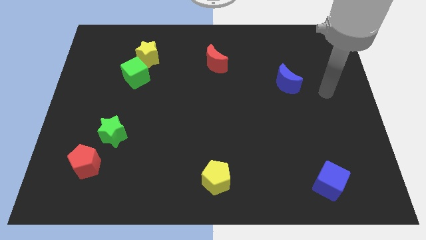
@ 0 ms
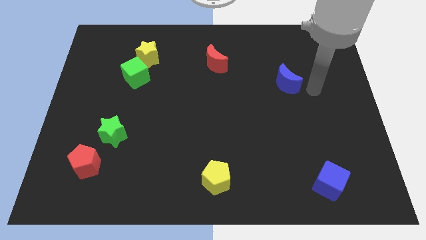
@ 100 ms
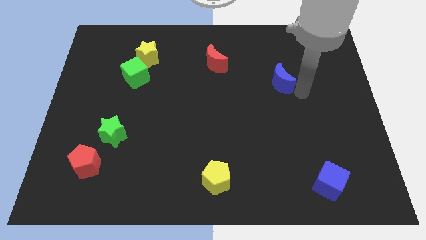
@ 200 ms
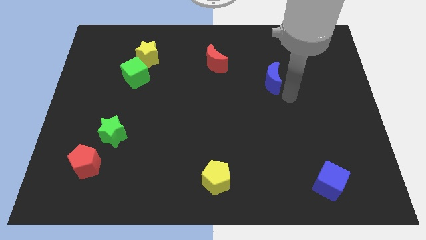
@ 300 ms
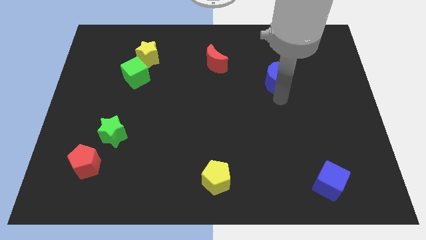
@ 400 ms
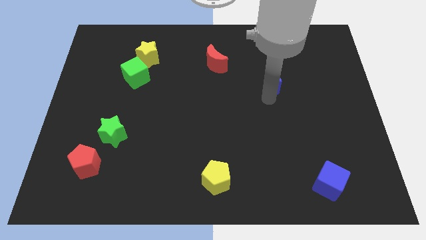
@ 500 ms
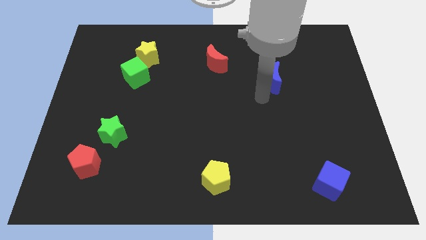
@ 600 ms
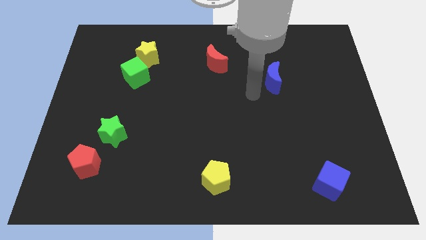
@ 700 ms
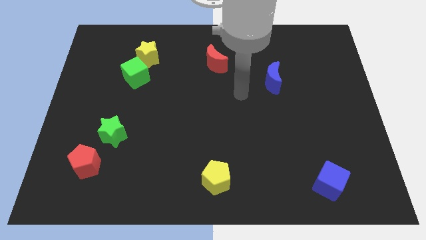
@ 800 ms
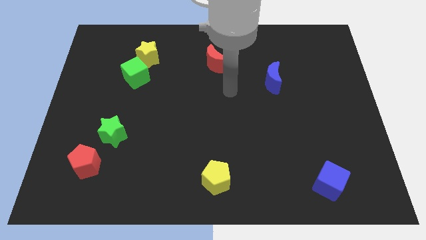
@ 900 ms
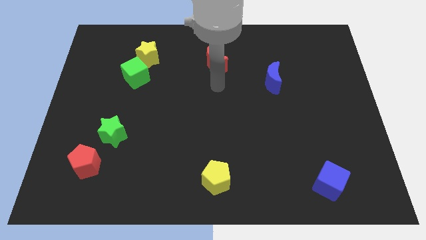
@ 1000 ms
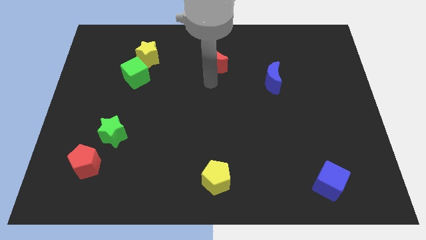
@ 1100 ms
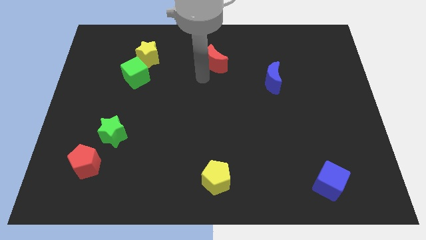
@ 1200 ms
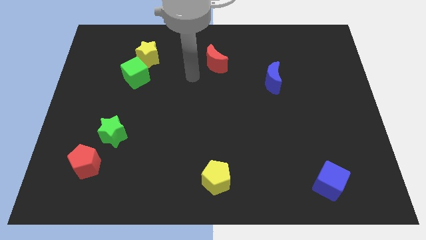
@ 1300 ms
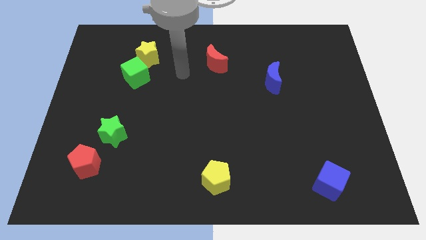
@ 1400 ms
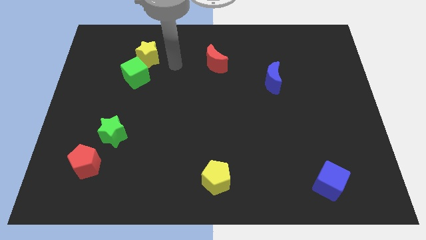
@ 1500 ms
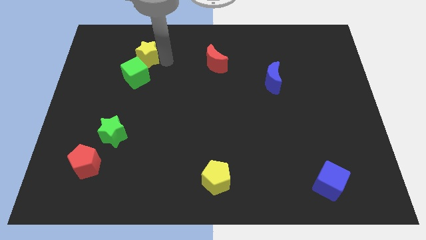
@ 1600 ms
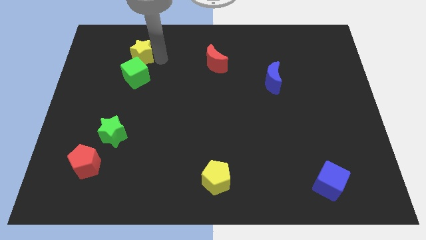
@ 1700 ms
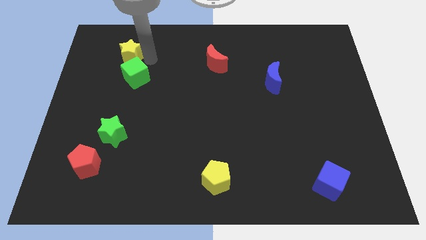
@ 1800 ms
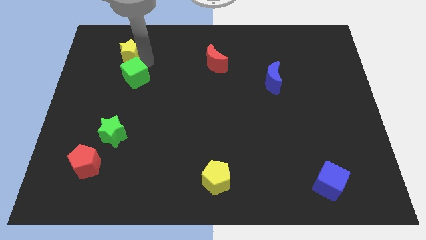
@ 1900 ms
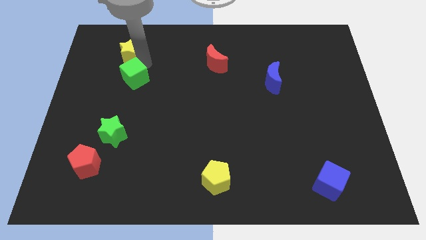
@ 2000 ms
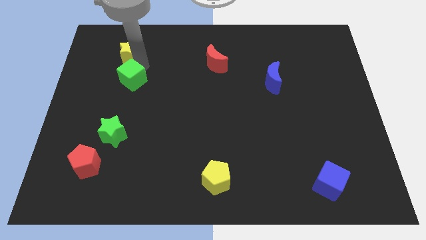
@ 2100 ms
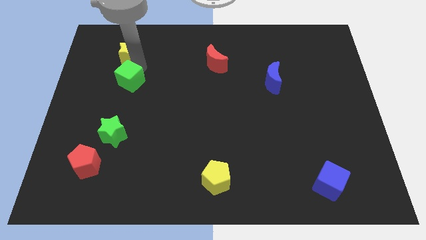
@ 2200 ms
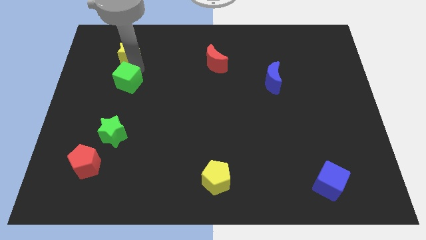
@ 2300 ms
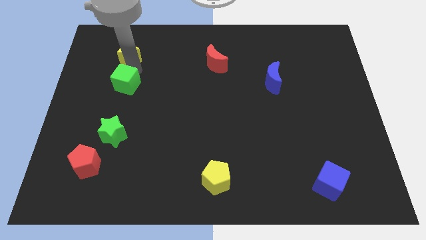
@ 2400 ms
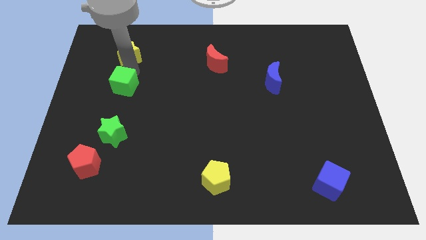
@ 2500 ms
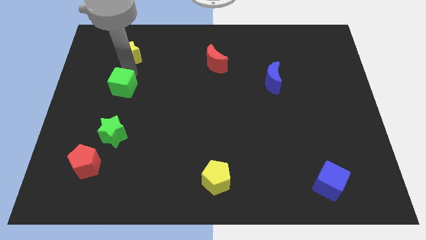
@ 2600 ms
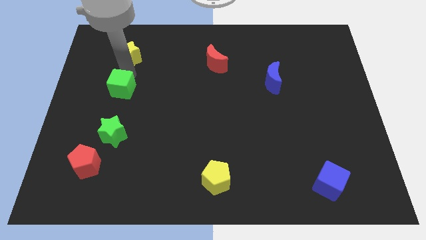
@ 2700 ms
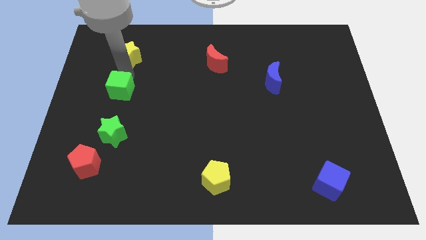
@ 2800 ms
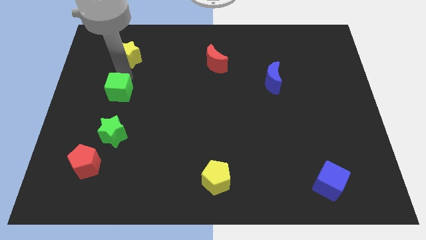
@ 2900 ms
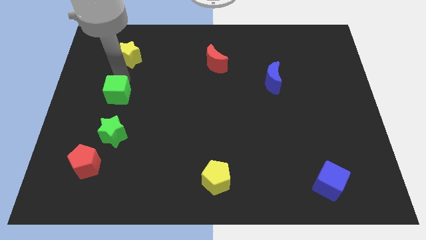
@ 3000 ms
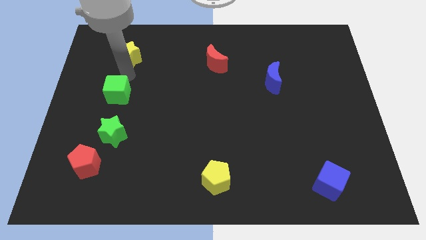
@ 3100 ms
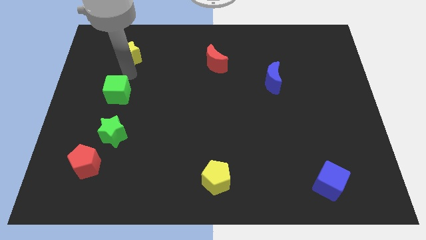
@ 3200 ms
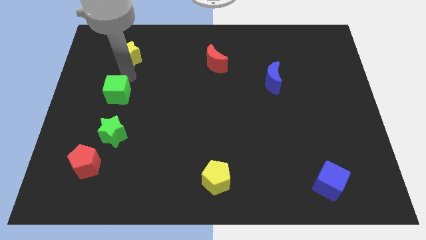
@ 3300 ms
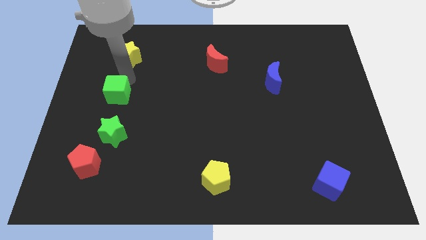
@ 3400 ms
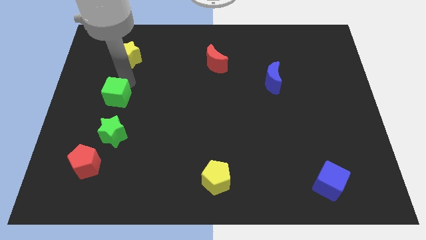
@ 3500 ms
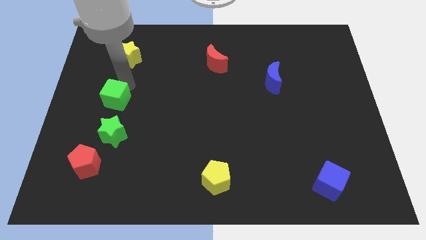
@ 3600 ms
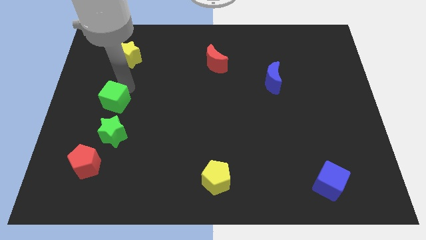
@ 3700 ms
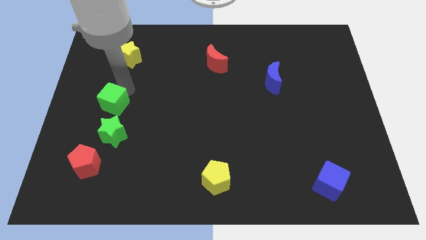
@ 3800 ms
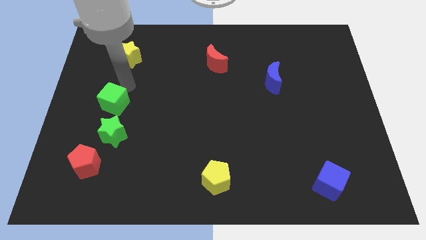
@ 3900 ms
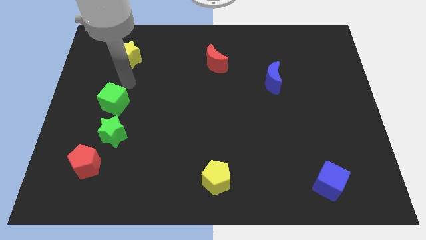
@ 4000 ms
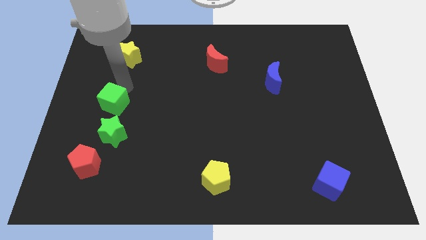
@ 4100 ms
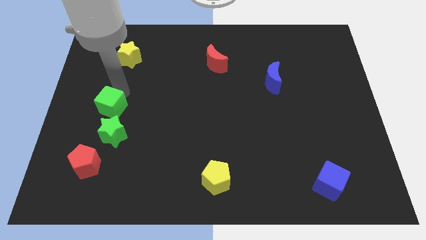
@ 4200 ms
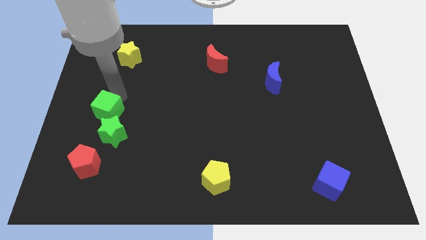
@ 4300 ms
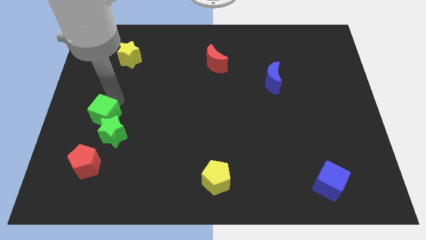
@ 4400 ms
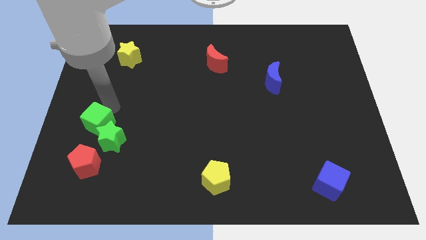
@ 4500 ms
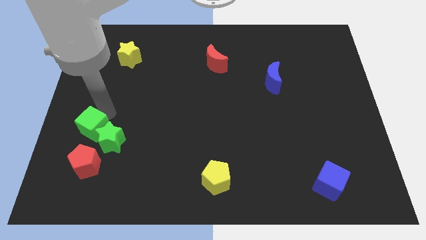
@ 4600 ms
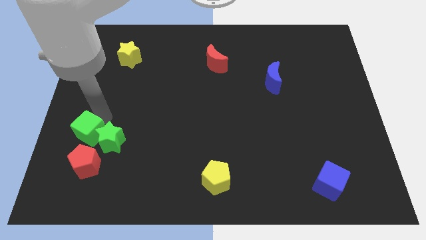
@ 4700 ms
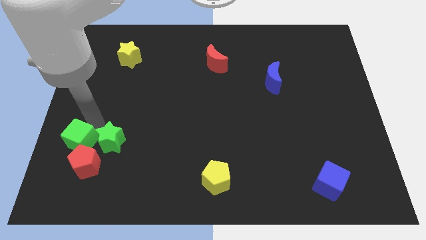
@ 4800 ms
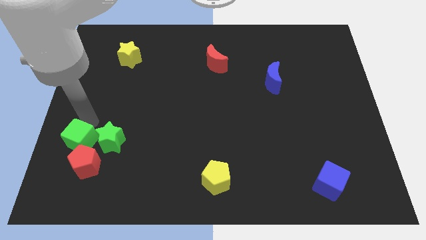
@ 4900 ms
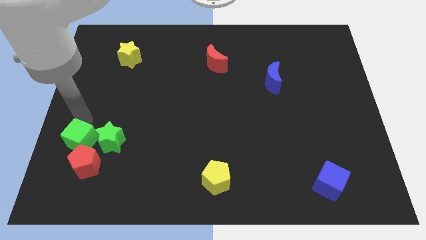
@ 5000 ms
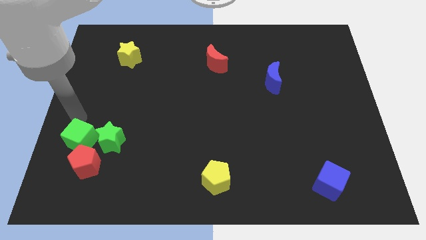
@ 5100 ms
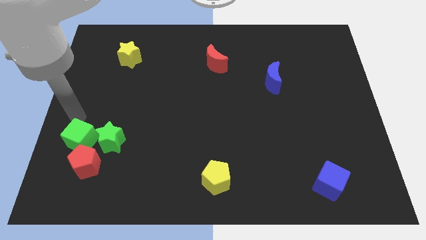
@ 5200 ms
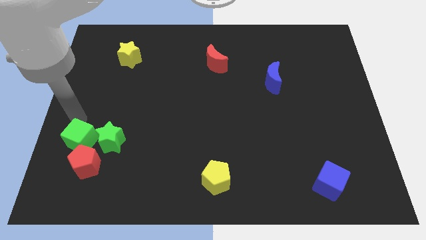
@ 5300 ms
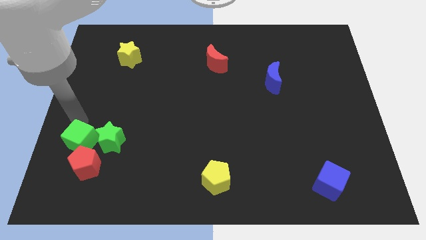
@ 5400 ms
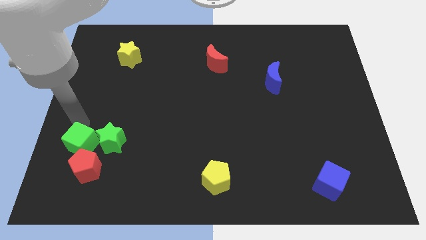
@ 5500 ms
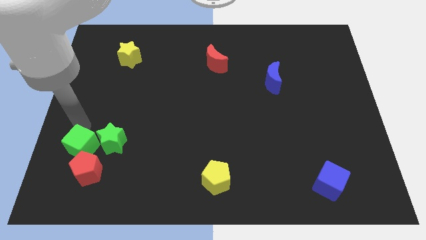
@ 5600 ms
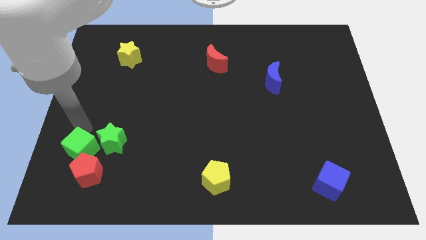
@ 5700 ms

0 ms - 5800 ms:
push the green cube close to the red pentagon
